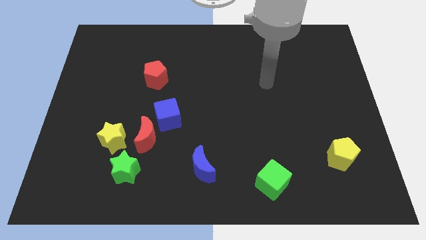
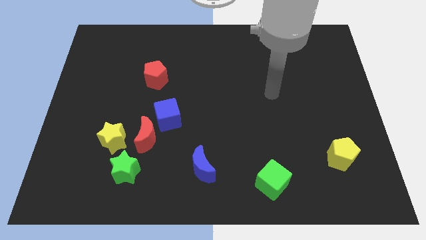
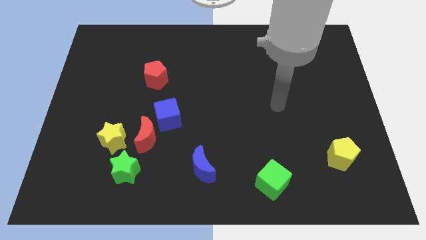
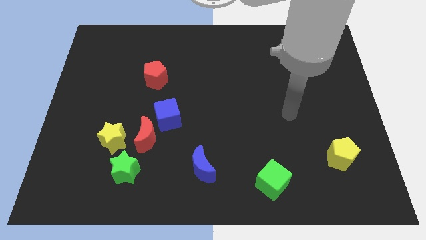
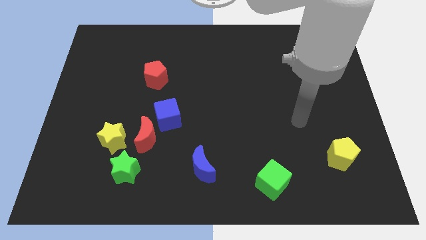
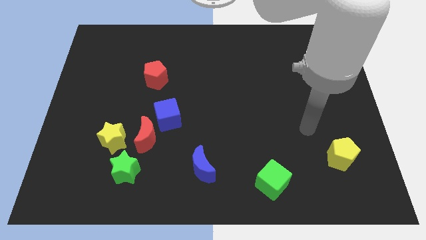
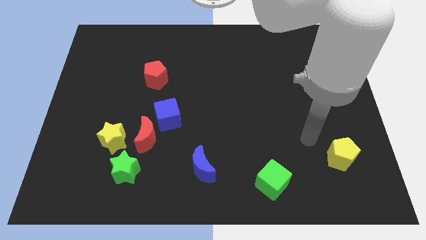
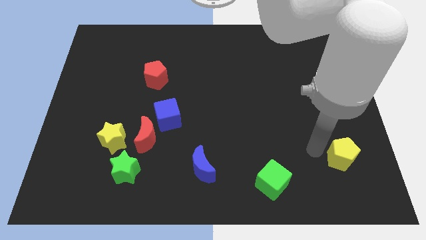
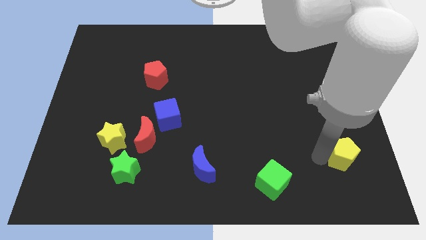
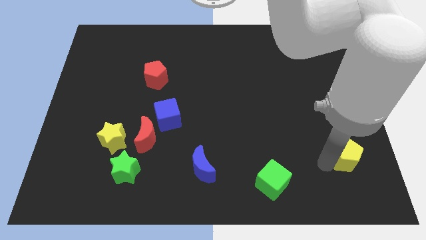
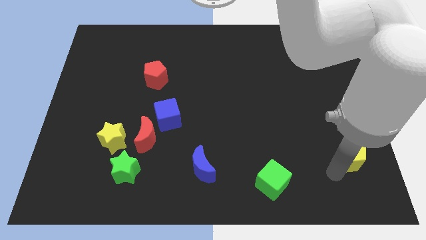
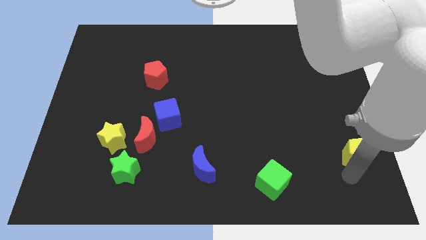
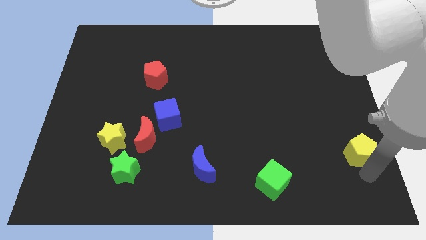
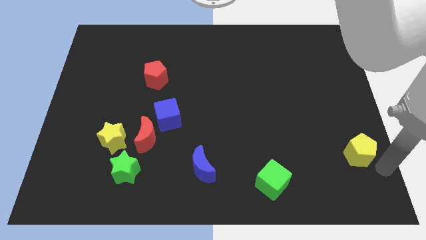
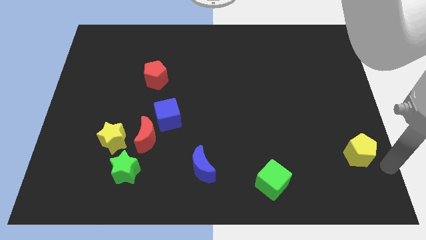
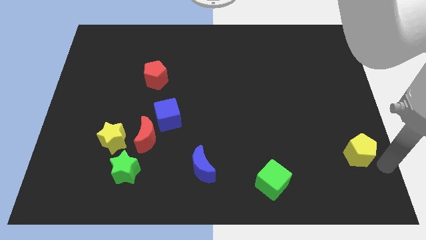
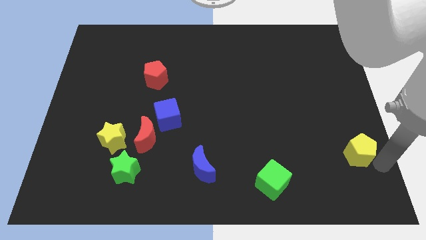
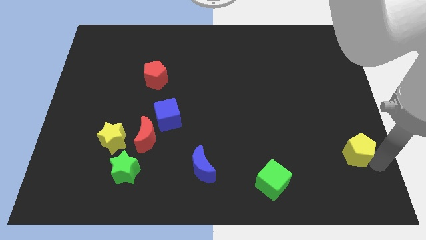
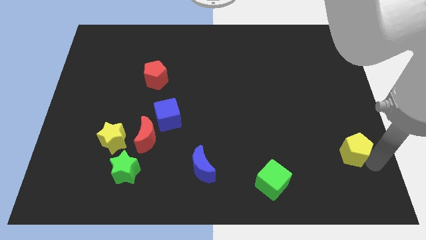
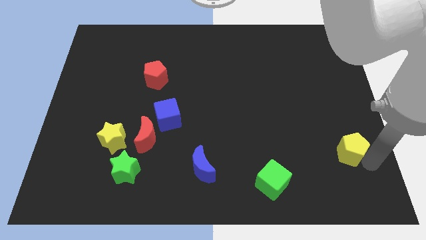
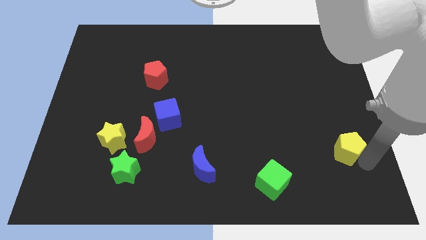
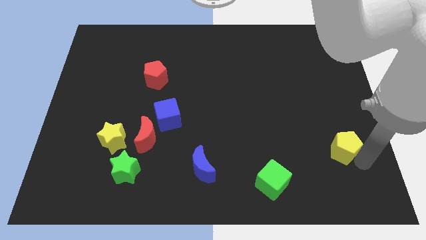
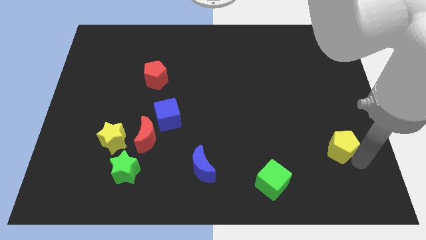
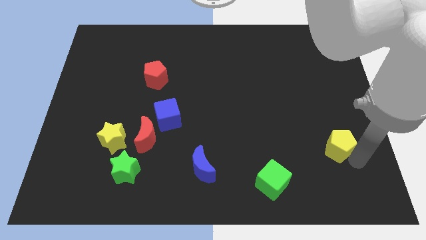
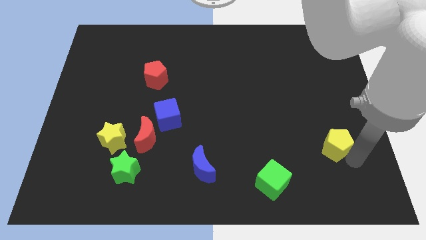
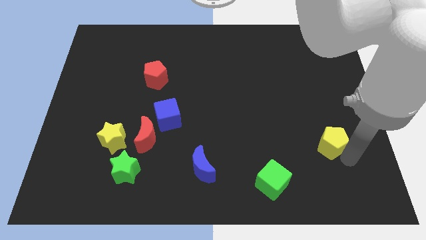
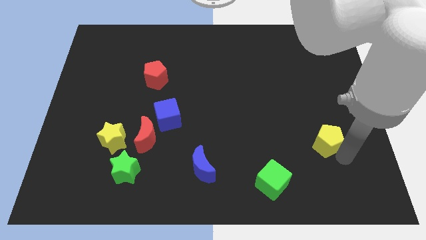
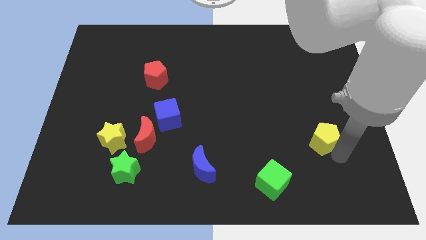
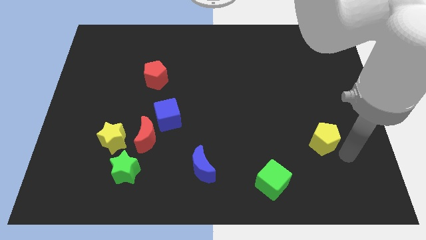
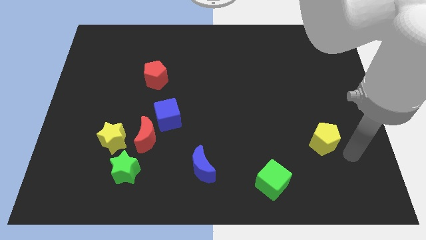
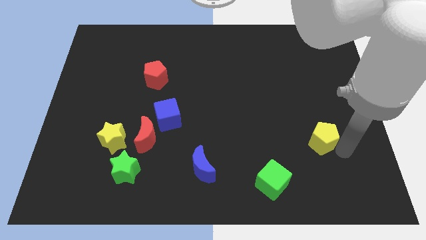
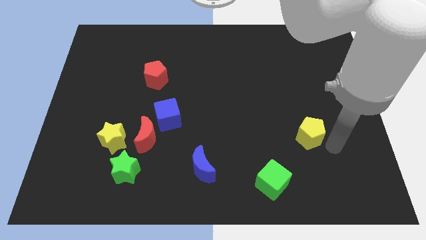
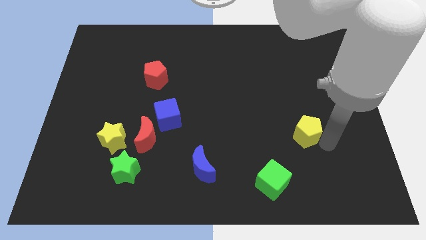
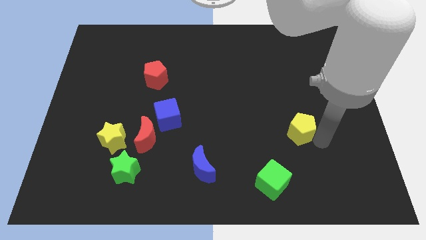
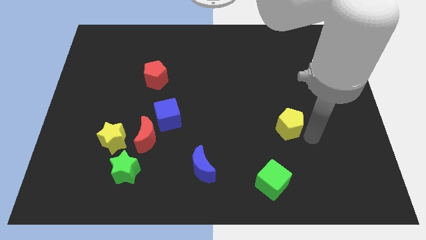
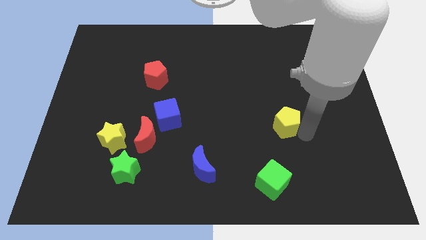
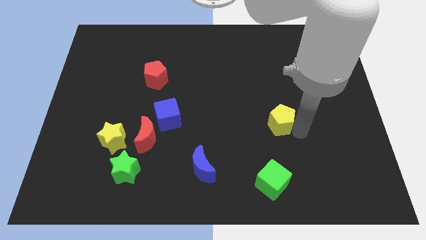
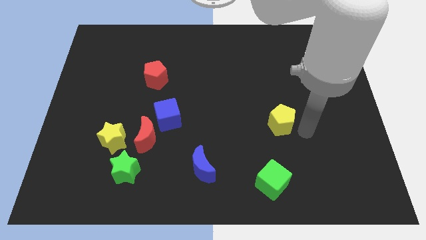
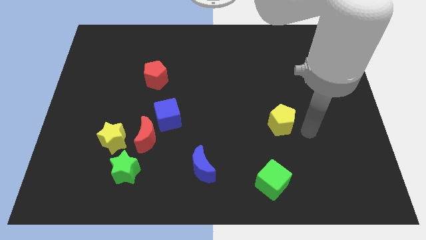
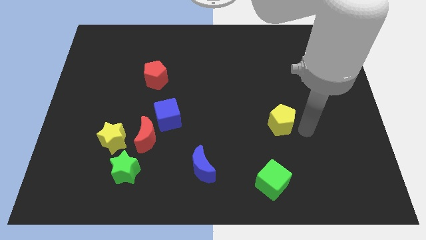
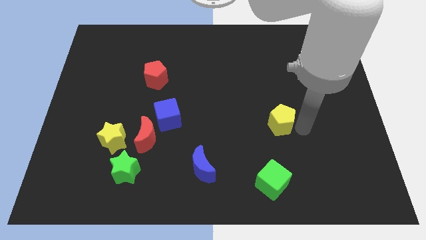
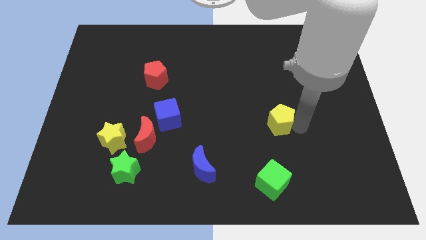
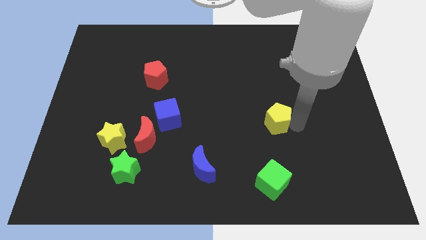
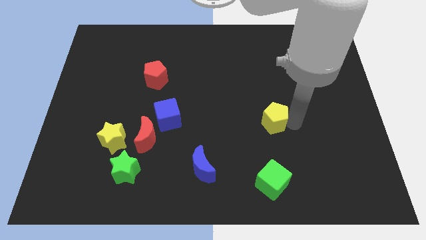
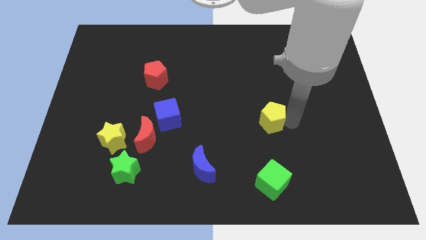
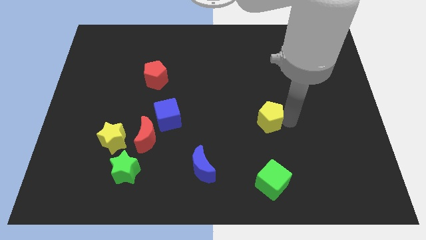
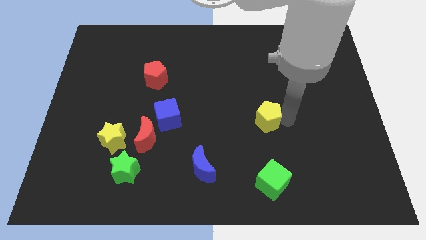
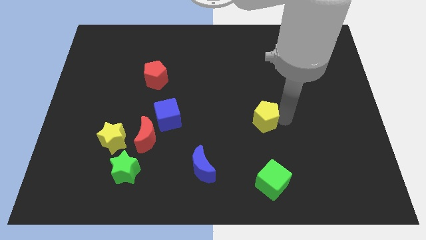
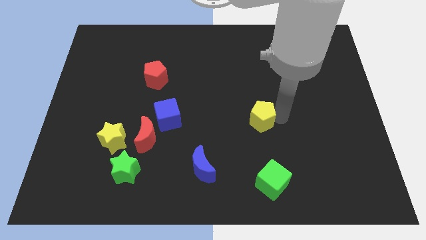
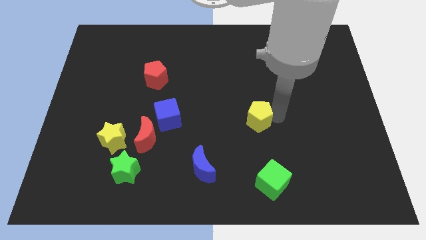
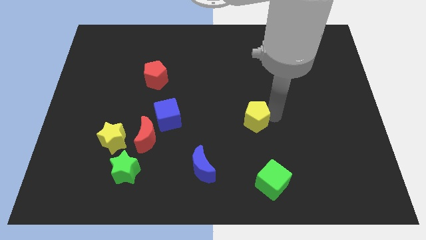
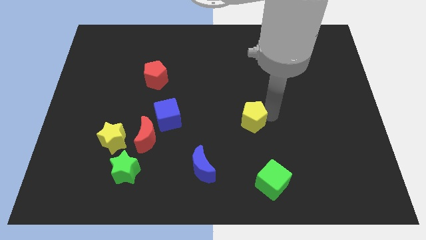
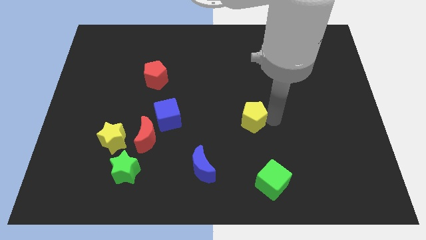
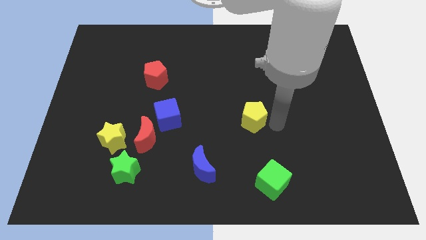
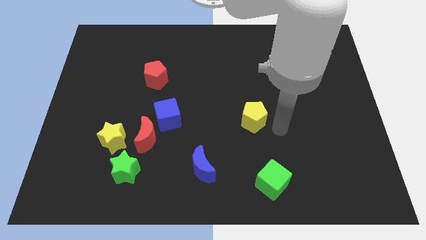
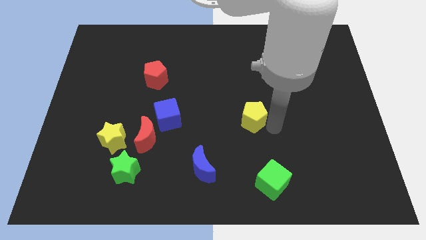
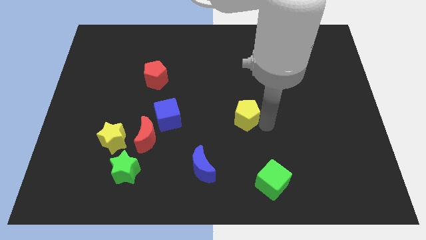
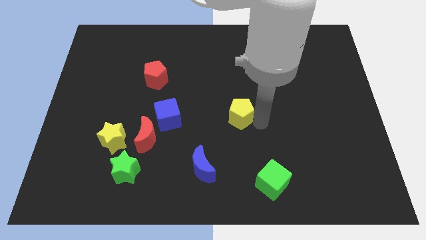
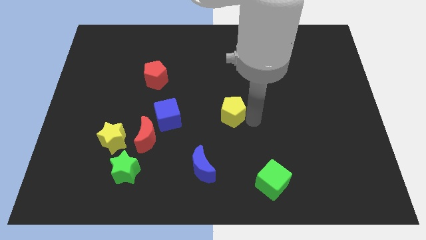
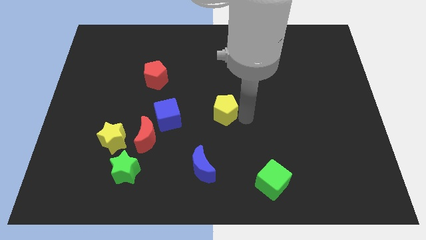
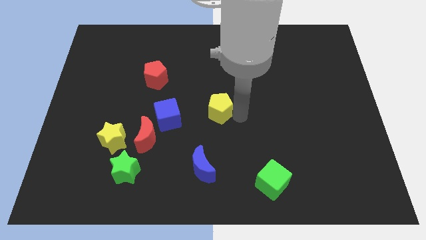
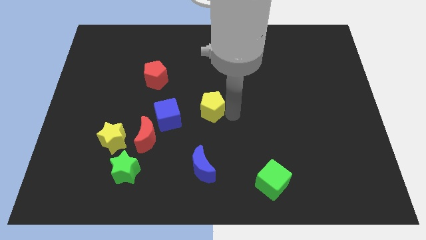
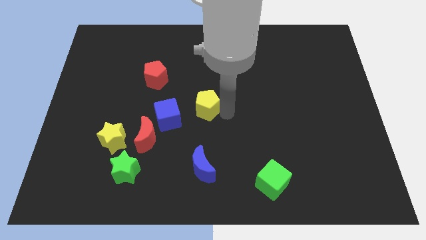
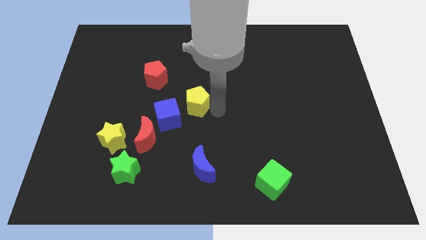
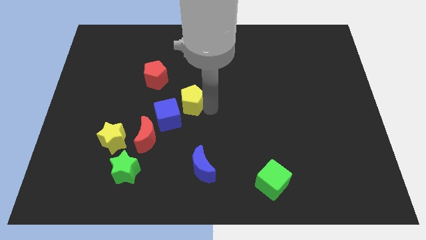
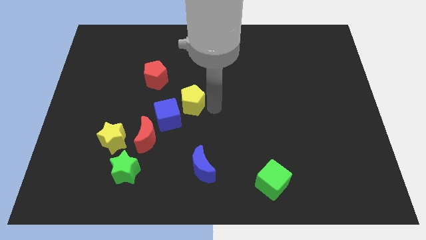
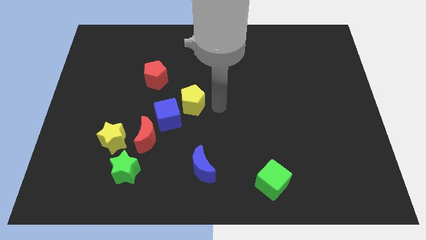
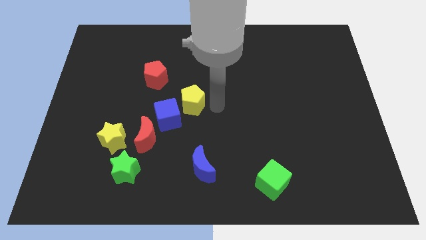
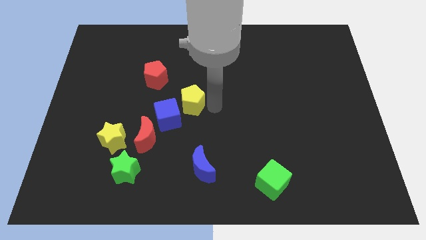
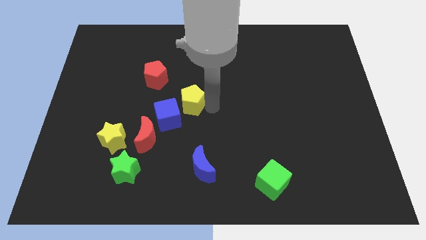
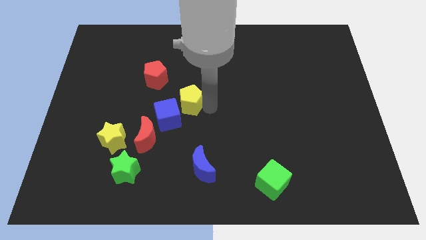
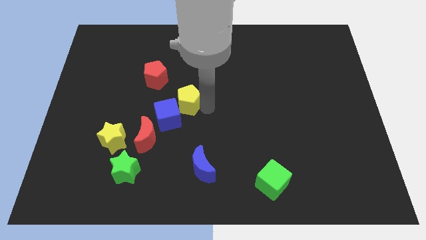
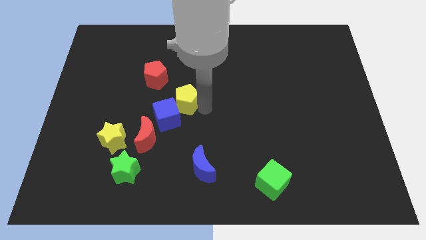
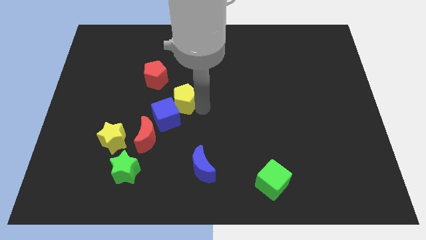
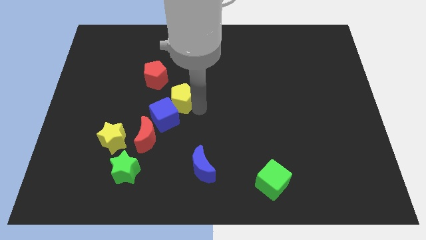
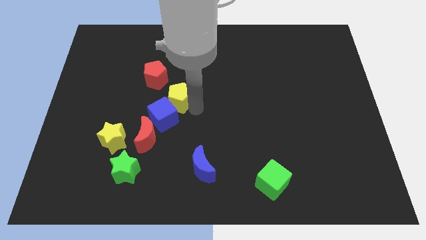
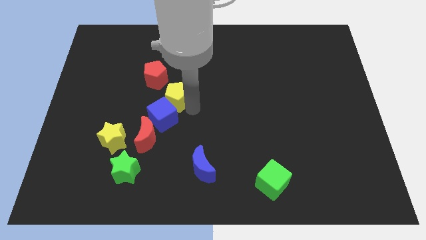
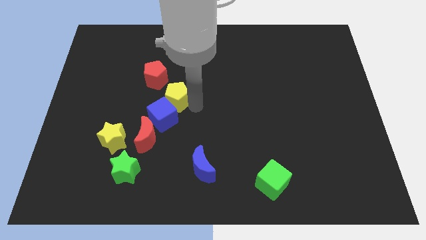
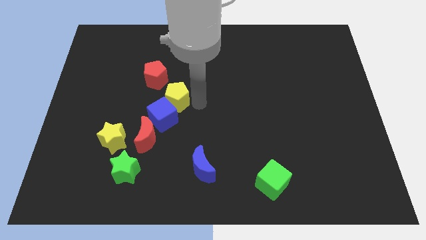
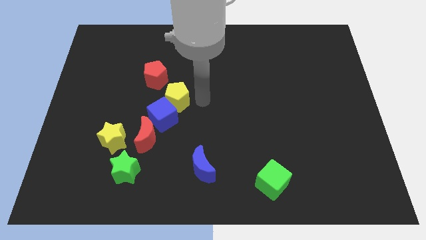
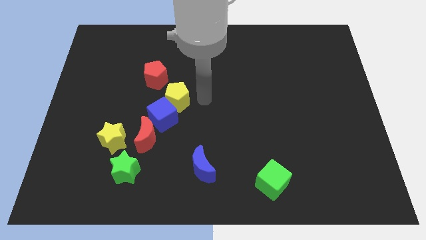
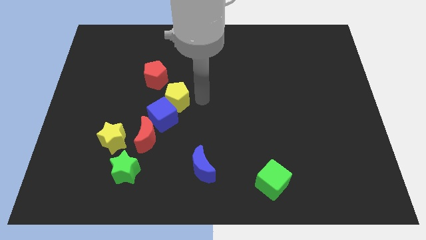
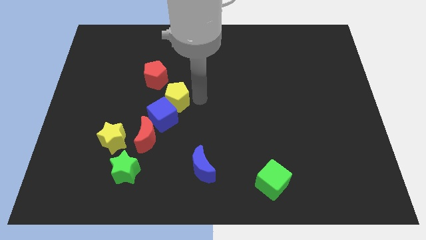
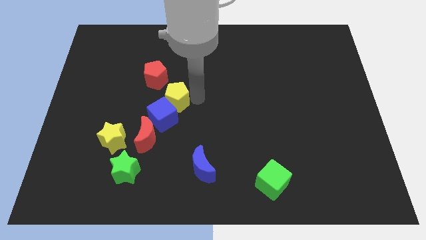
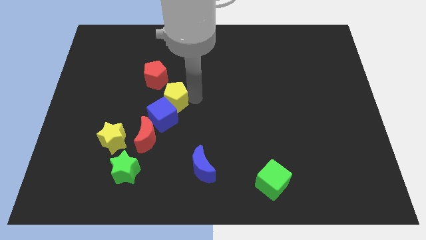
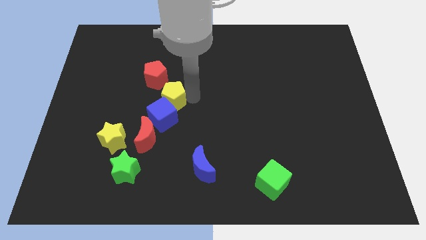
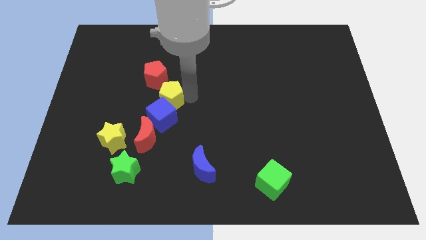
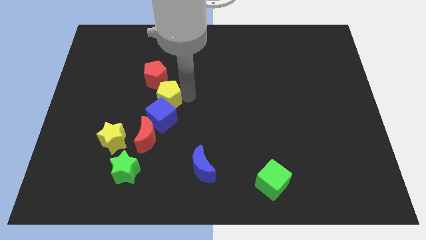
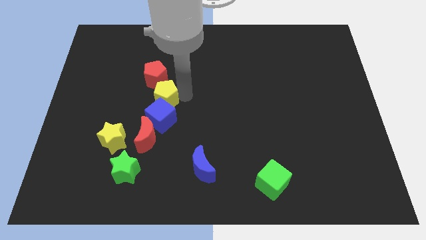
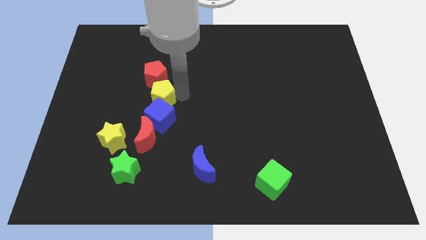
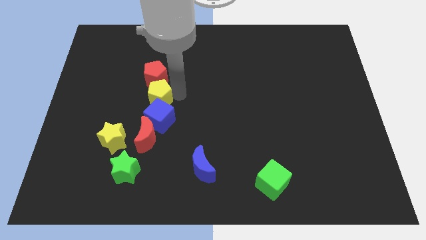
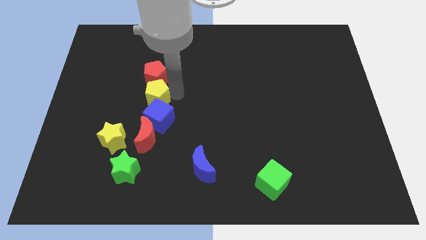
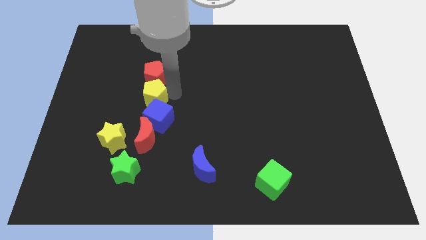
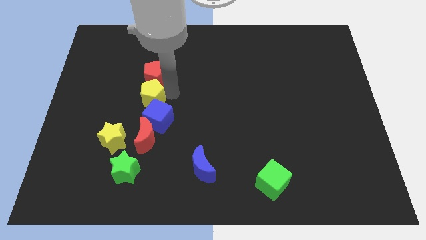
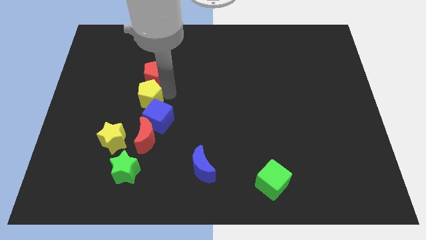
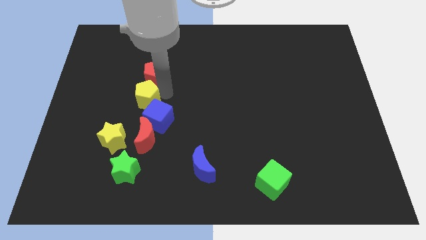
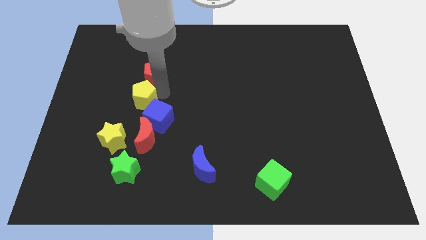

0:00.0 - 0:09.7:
slide the yellow pentagon above the yellow star
